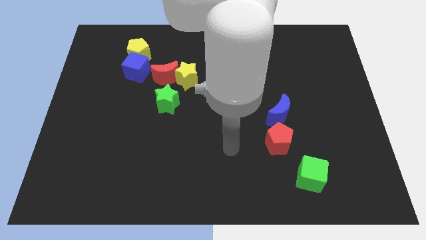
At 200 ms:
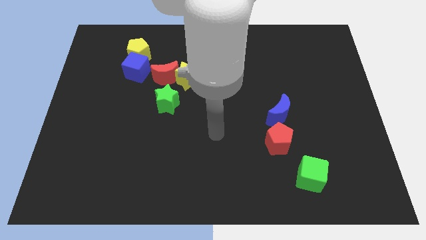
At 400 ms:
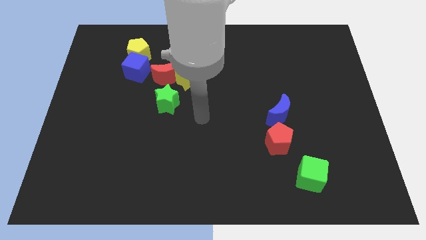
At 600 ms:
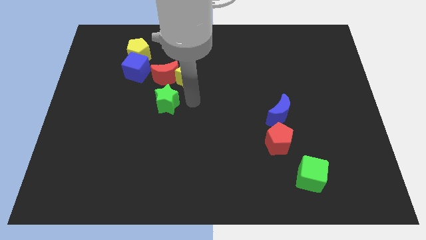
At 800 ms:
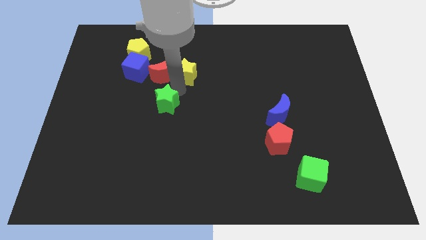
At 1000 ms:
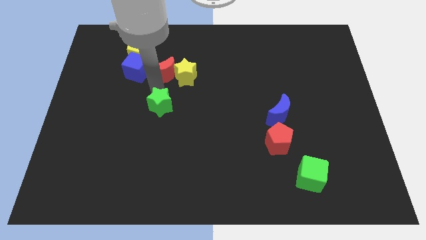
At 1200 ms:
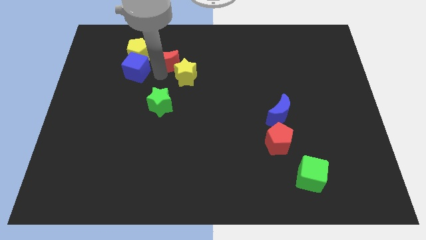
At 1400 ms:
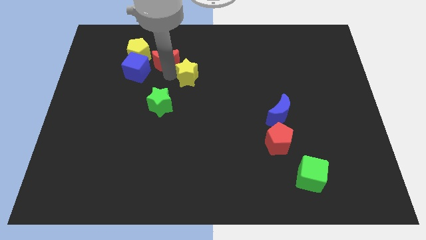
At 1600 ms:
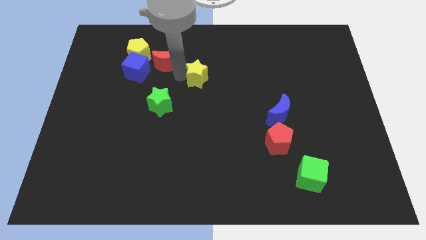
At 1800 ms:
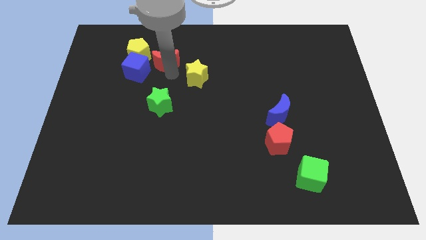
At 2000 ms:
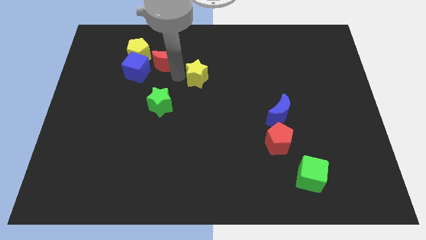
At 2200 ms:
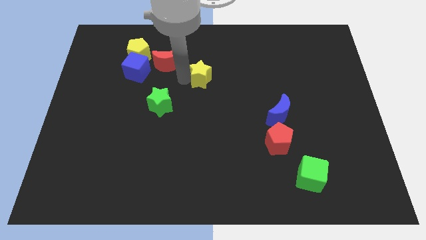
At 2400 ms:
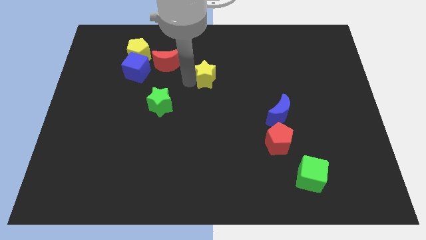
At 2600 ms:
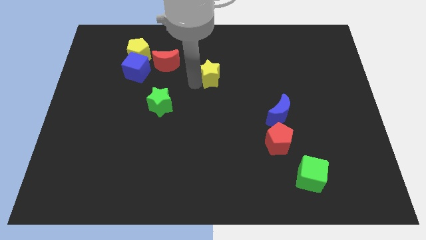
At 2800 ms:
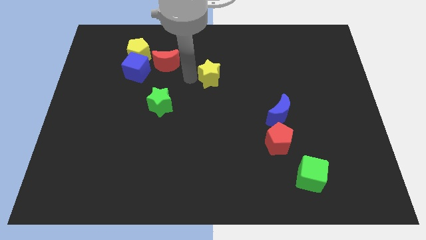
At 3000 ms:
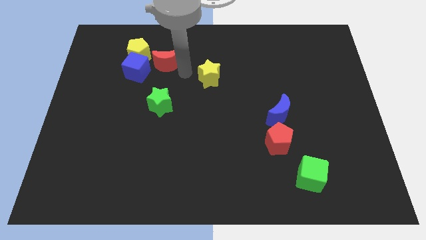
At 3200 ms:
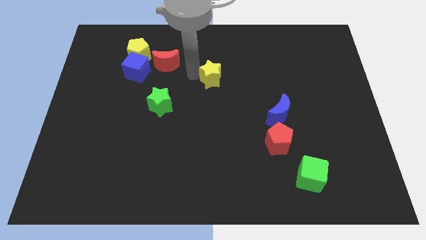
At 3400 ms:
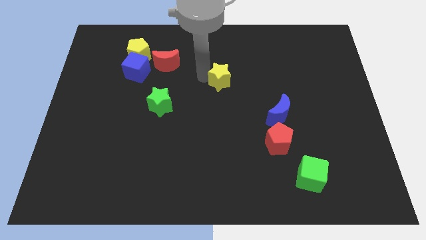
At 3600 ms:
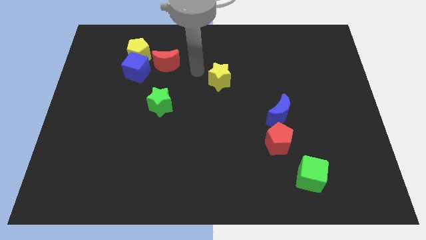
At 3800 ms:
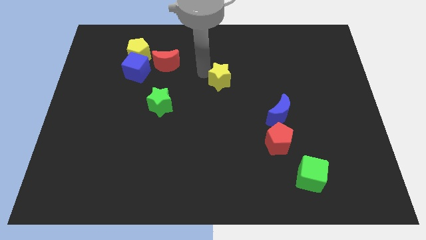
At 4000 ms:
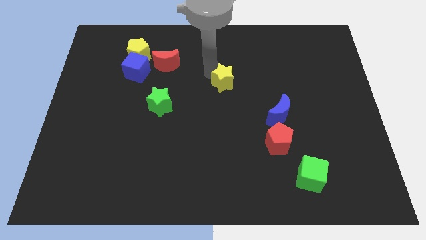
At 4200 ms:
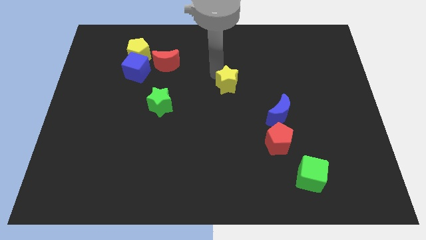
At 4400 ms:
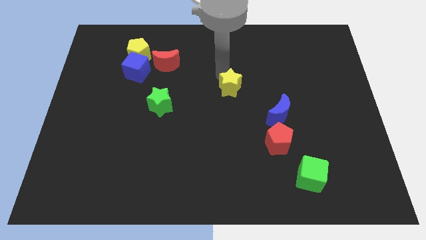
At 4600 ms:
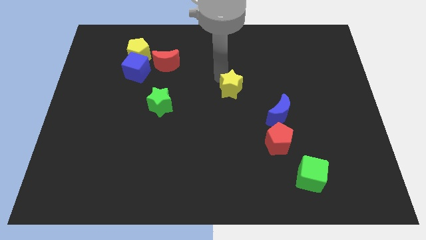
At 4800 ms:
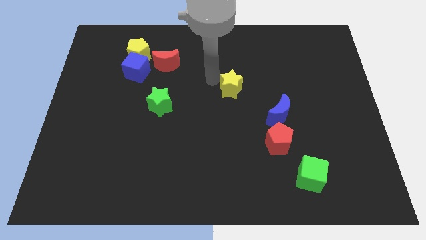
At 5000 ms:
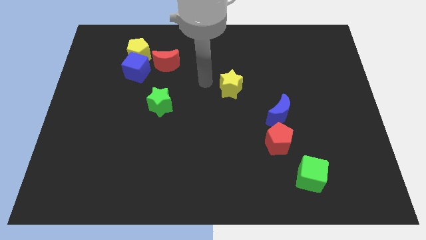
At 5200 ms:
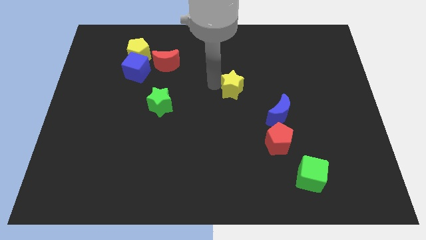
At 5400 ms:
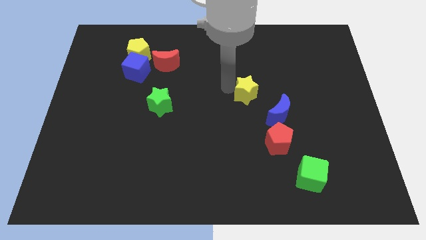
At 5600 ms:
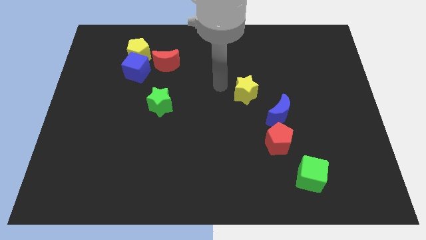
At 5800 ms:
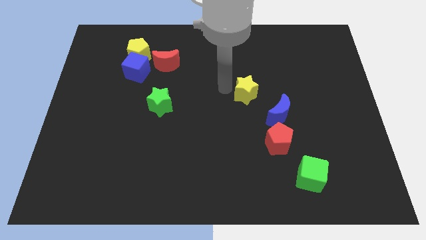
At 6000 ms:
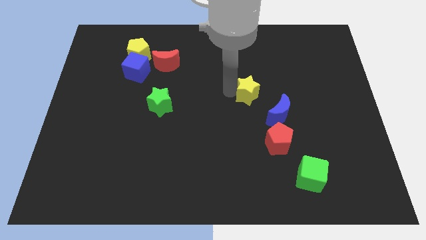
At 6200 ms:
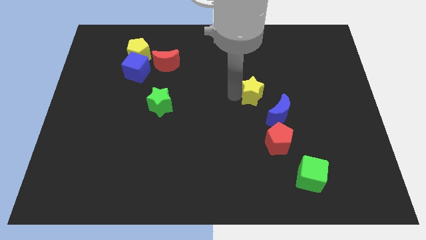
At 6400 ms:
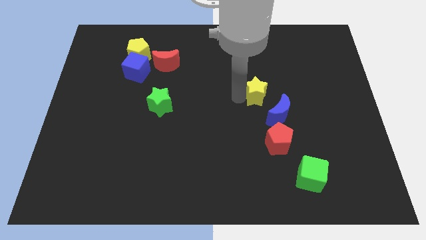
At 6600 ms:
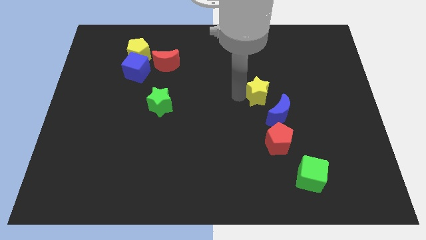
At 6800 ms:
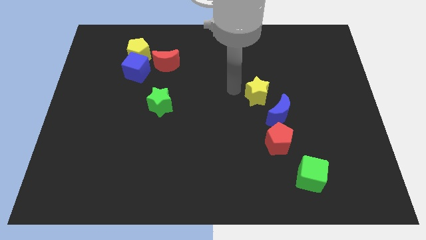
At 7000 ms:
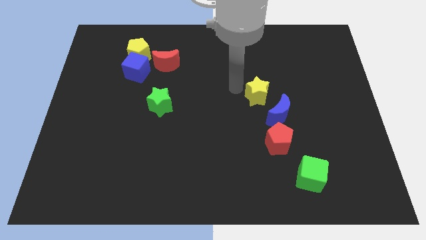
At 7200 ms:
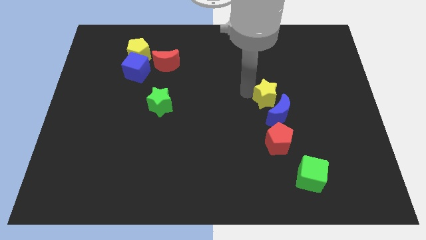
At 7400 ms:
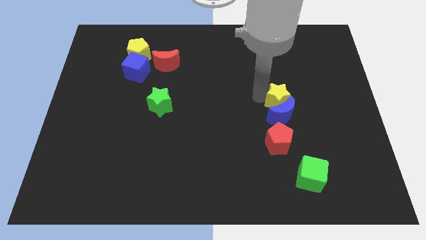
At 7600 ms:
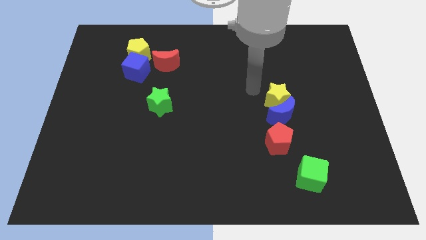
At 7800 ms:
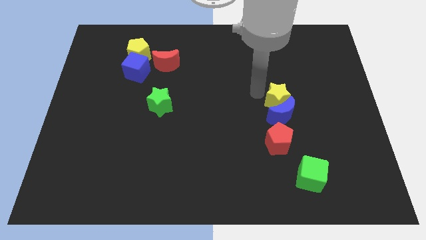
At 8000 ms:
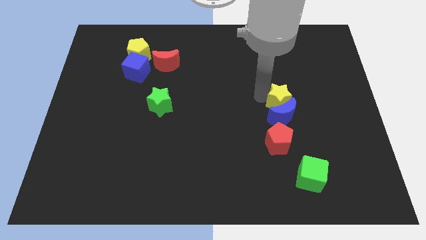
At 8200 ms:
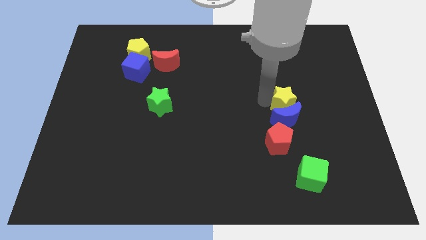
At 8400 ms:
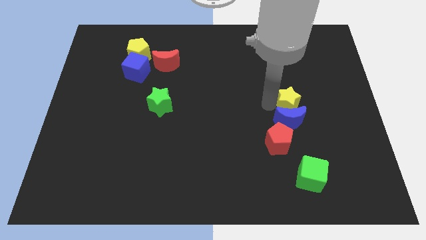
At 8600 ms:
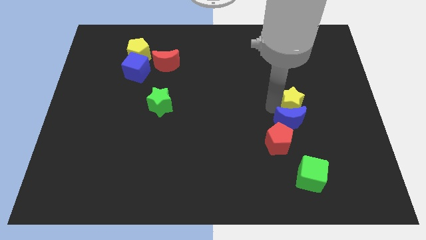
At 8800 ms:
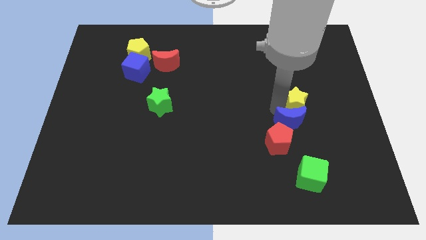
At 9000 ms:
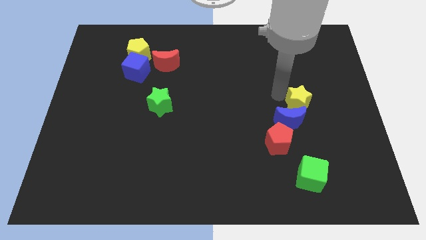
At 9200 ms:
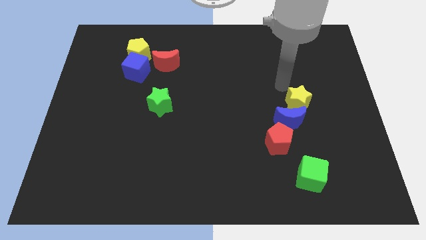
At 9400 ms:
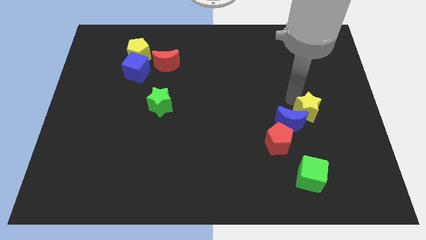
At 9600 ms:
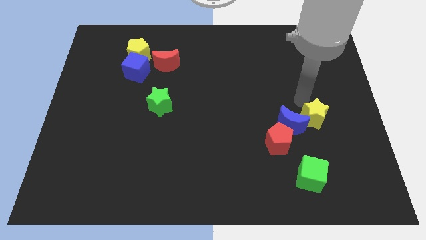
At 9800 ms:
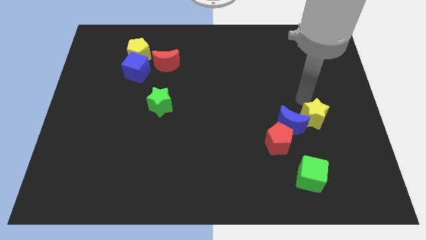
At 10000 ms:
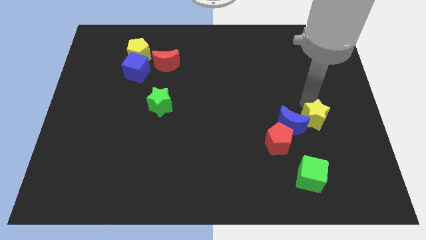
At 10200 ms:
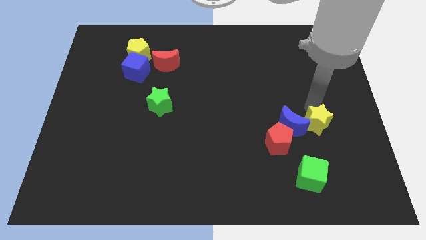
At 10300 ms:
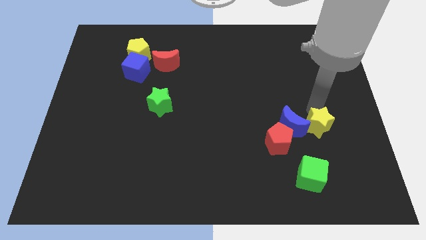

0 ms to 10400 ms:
move the yellow star just right of the red pentagon

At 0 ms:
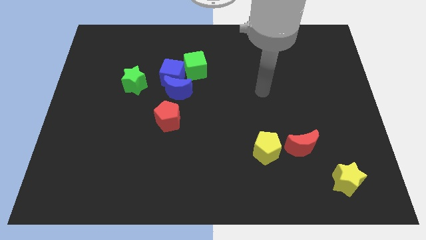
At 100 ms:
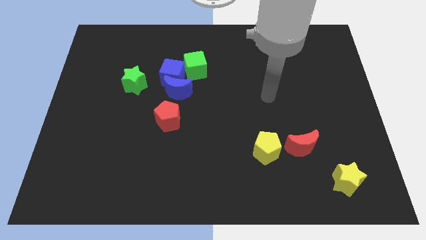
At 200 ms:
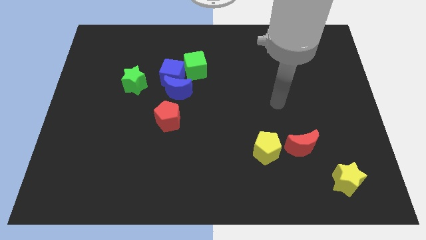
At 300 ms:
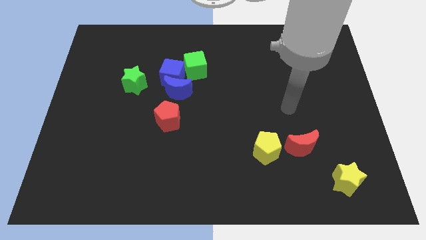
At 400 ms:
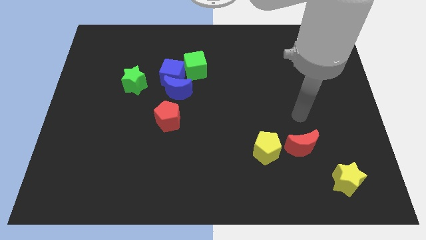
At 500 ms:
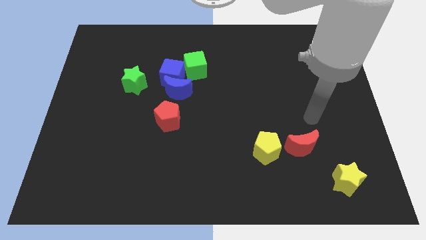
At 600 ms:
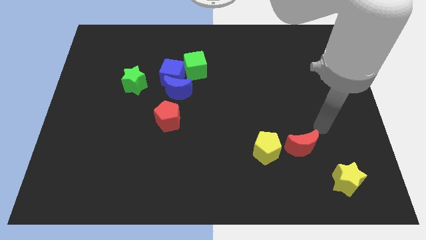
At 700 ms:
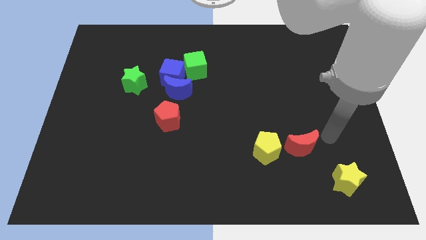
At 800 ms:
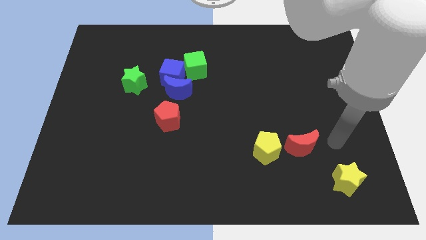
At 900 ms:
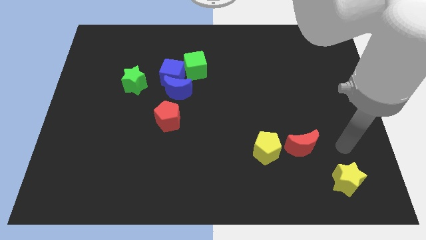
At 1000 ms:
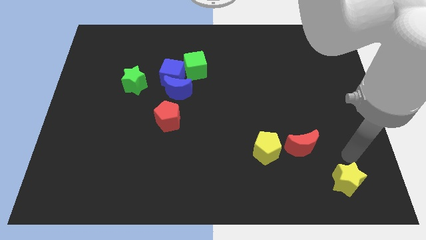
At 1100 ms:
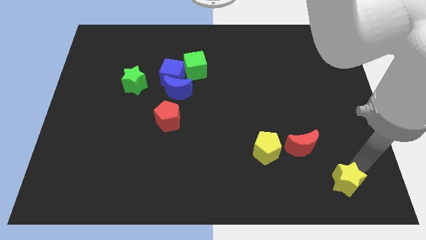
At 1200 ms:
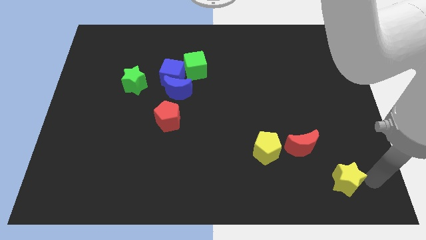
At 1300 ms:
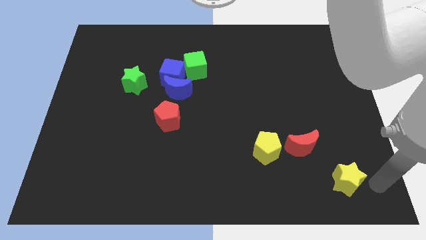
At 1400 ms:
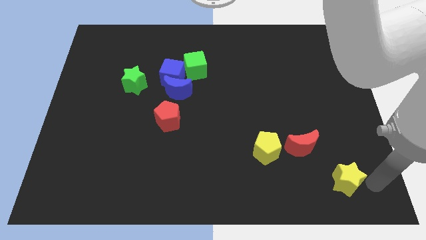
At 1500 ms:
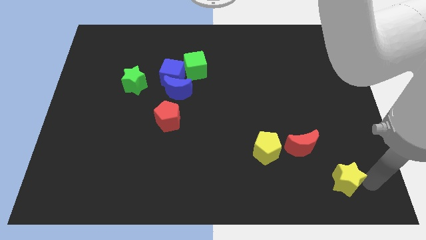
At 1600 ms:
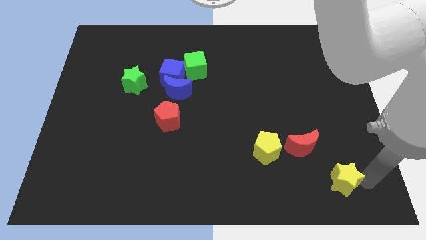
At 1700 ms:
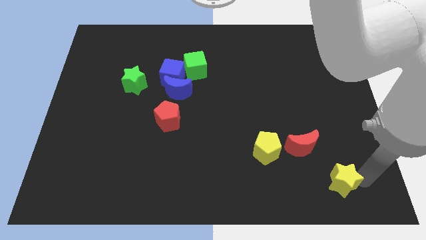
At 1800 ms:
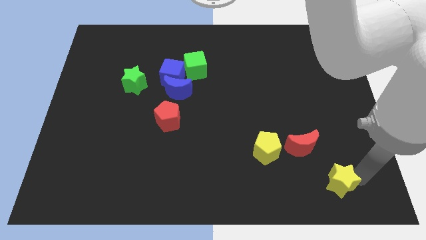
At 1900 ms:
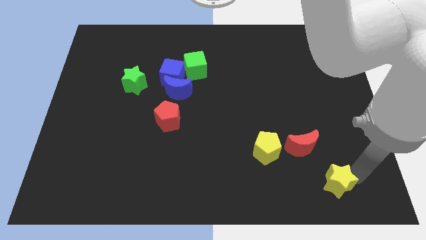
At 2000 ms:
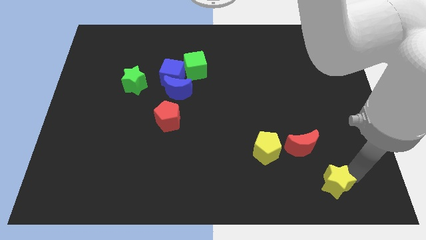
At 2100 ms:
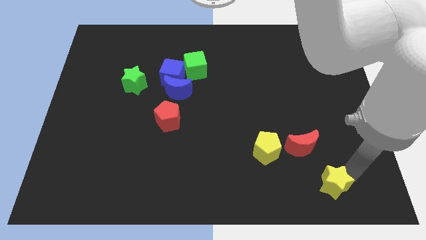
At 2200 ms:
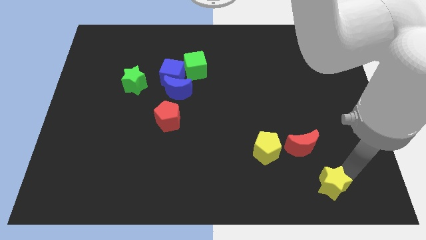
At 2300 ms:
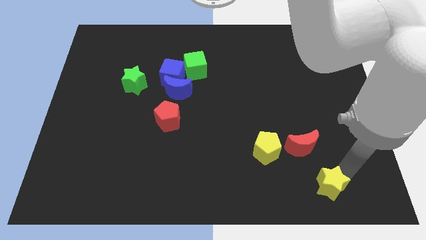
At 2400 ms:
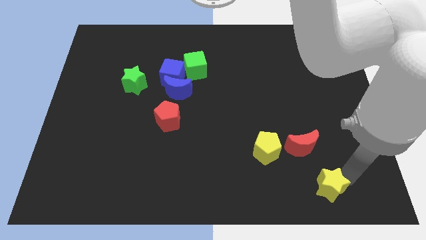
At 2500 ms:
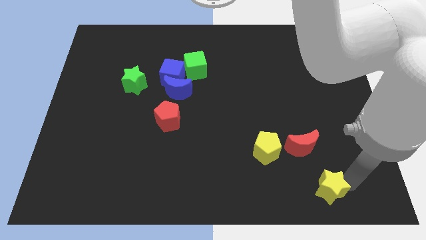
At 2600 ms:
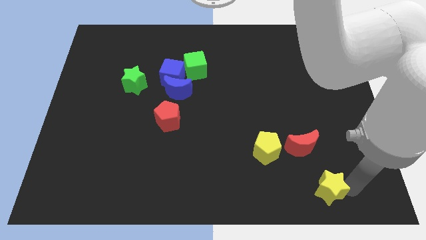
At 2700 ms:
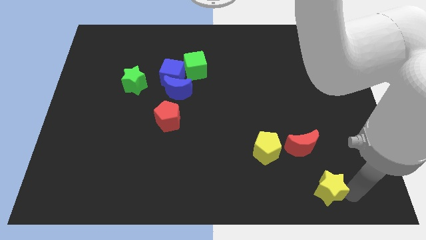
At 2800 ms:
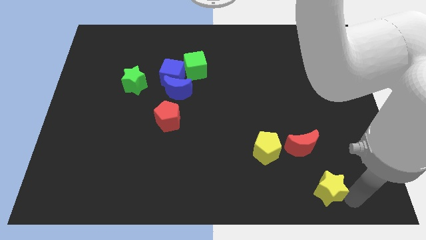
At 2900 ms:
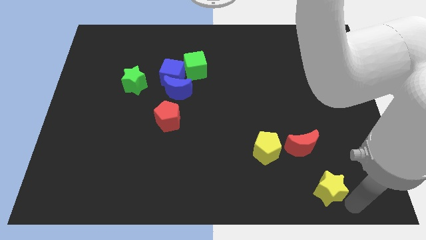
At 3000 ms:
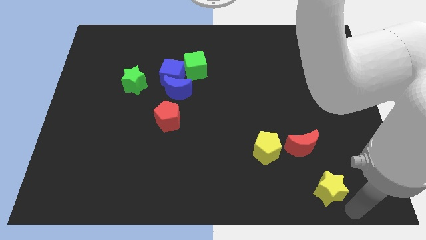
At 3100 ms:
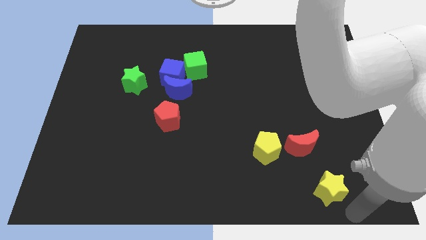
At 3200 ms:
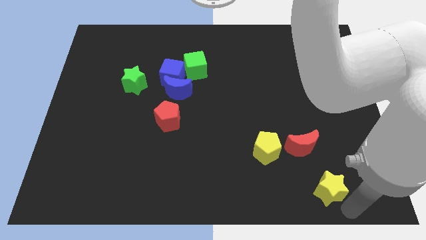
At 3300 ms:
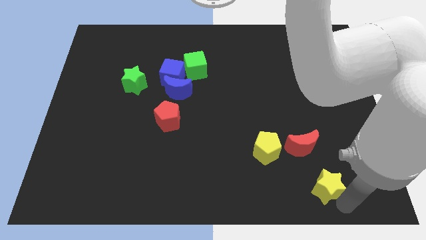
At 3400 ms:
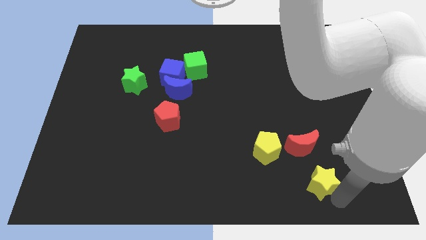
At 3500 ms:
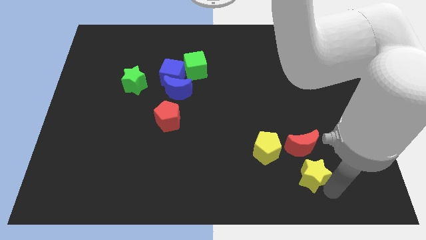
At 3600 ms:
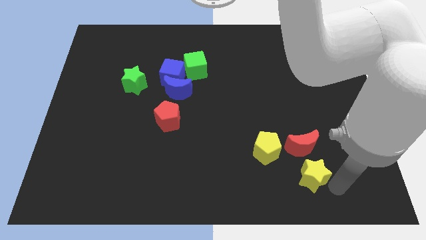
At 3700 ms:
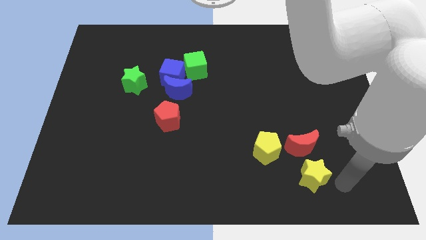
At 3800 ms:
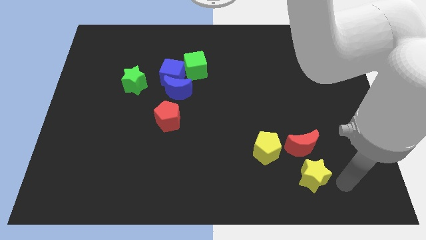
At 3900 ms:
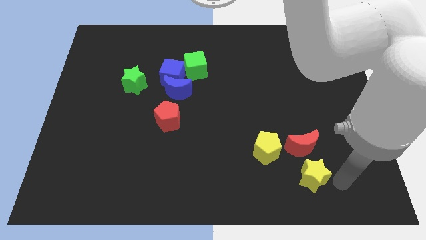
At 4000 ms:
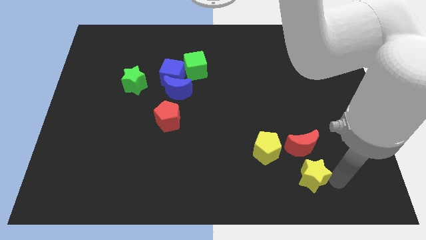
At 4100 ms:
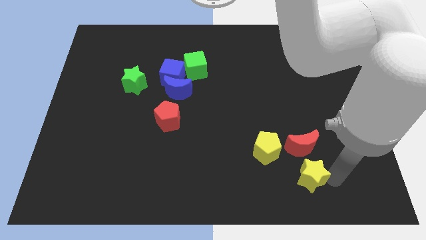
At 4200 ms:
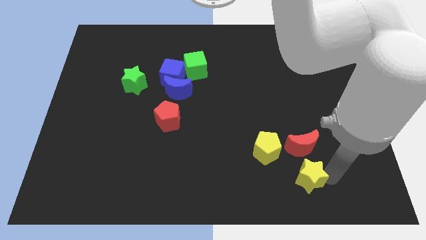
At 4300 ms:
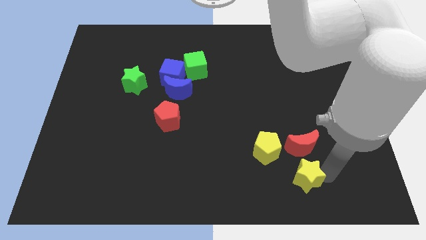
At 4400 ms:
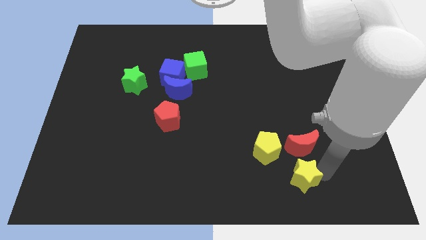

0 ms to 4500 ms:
slide the yellow star to the bottom left side of the red moon
